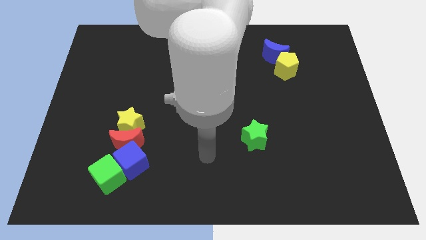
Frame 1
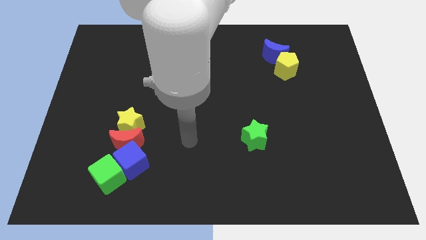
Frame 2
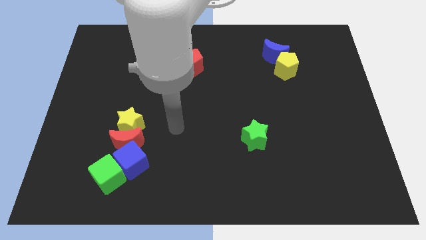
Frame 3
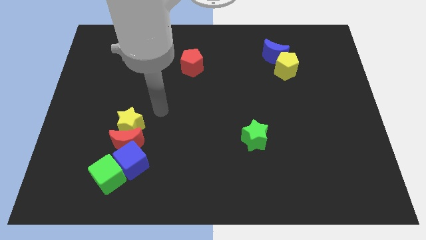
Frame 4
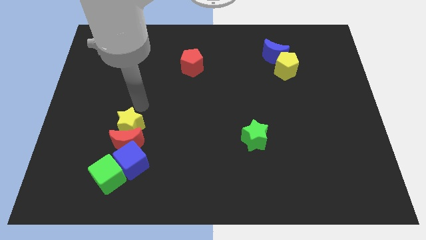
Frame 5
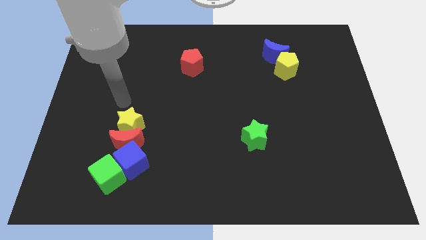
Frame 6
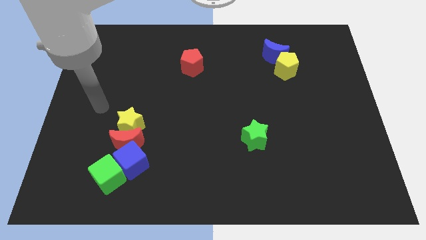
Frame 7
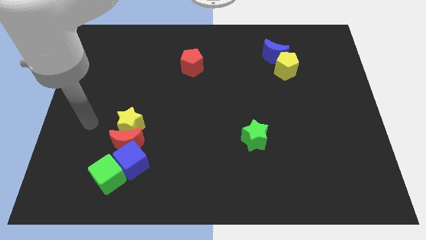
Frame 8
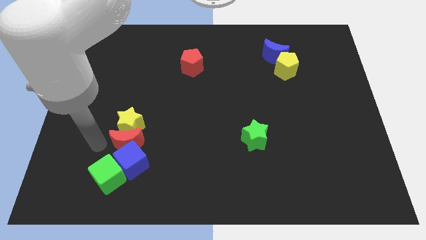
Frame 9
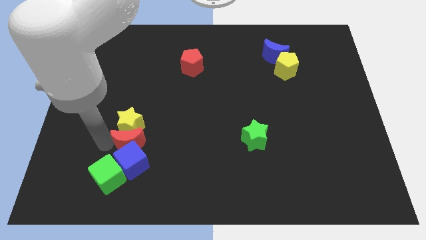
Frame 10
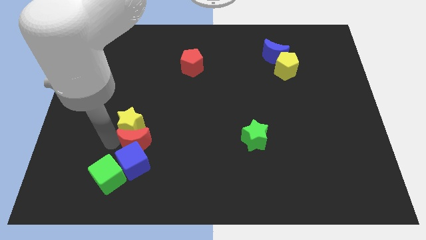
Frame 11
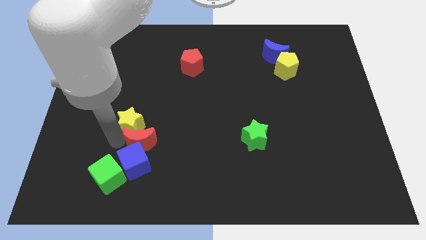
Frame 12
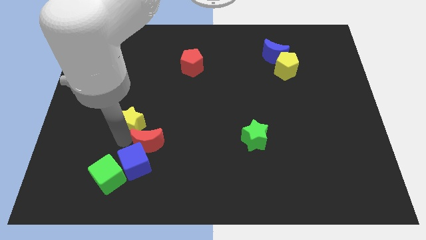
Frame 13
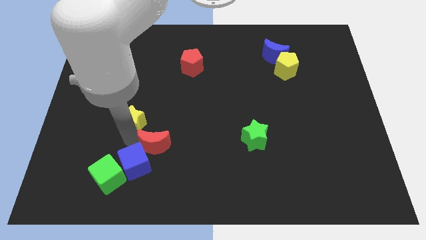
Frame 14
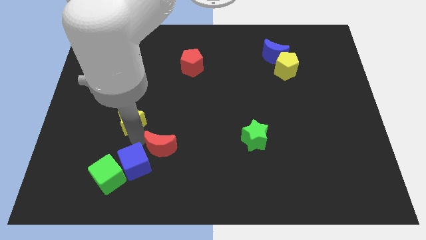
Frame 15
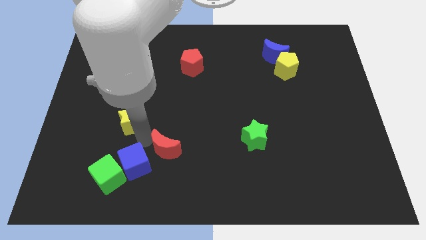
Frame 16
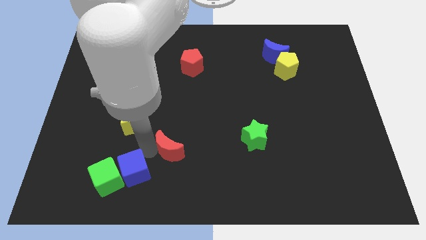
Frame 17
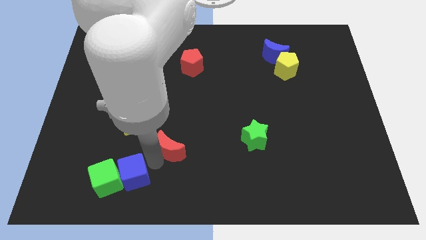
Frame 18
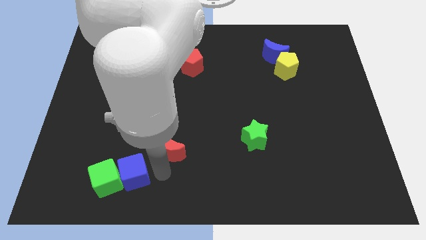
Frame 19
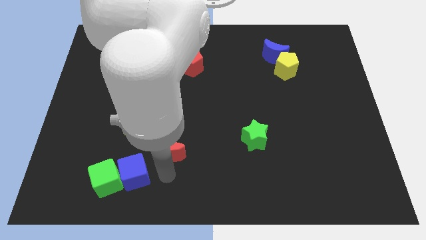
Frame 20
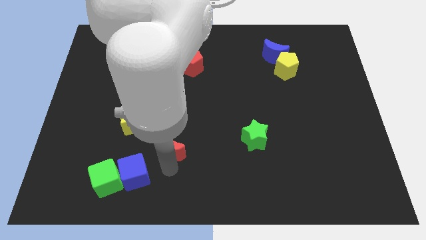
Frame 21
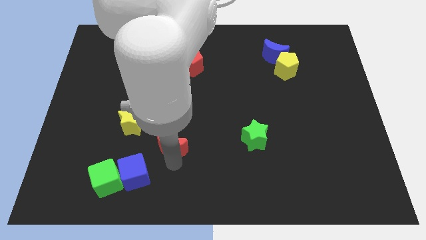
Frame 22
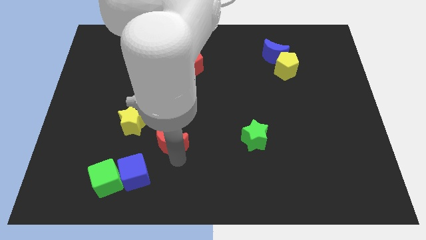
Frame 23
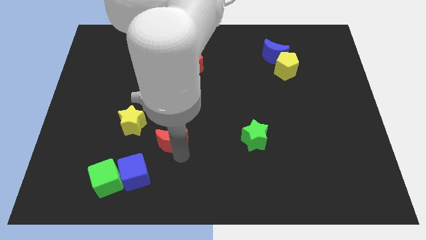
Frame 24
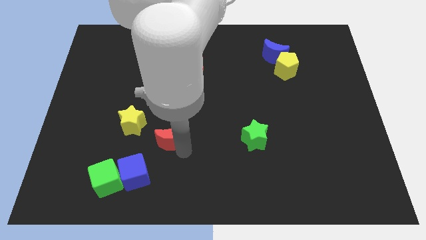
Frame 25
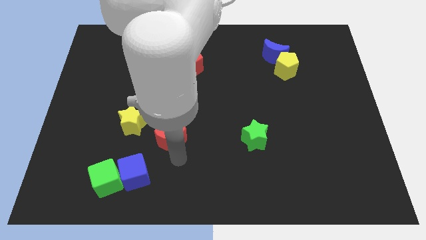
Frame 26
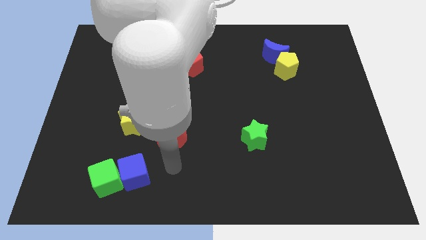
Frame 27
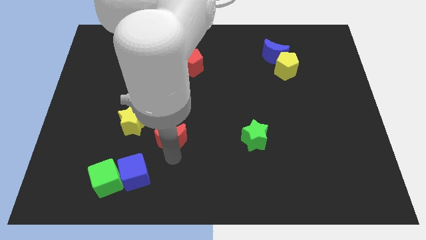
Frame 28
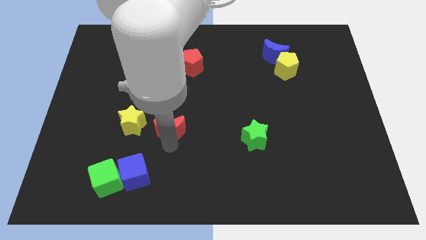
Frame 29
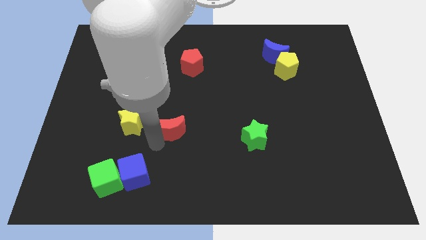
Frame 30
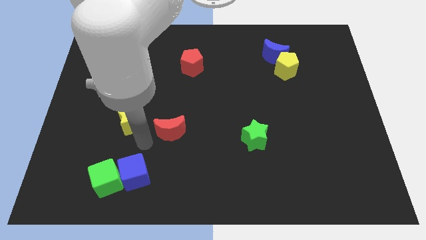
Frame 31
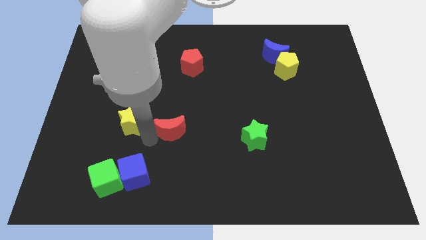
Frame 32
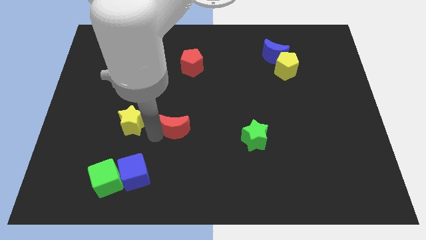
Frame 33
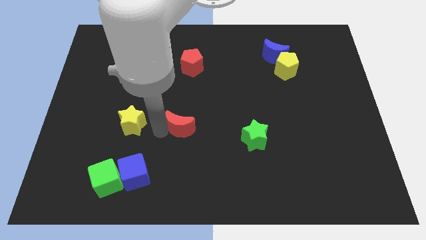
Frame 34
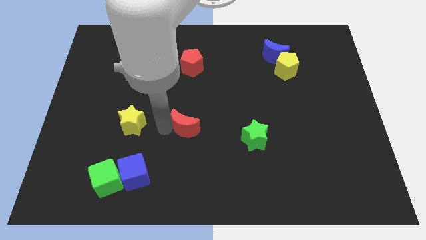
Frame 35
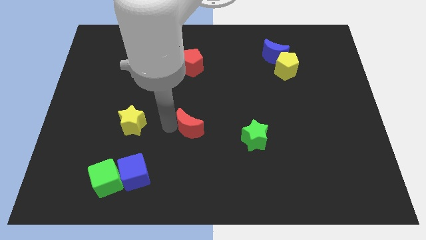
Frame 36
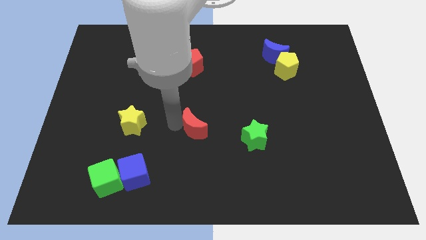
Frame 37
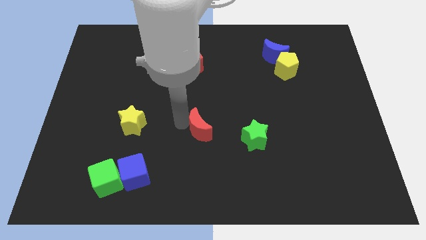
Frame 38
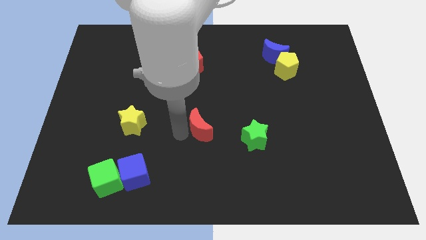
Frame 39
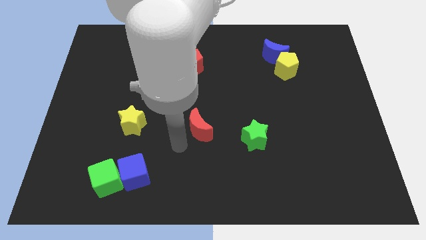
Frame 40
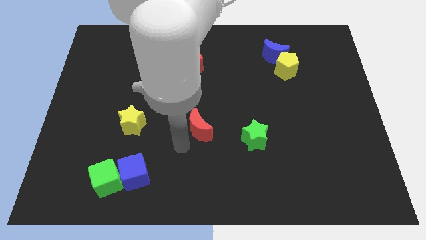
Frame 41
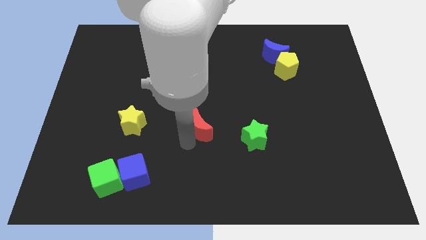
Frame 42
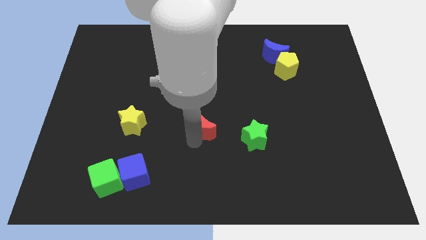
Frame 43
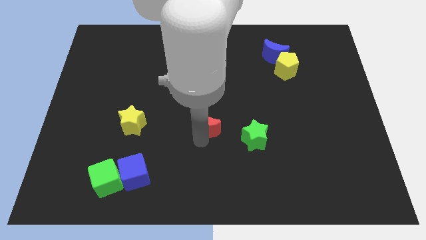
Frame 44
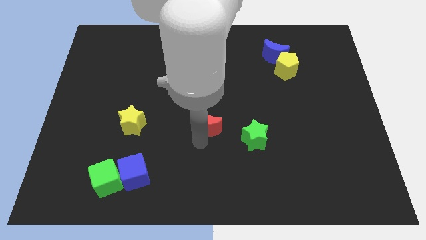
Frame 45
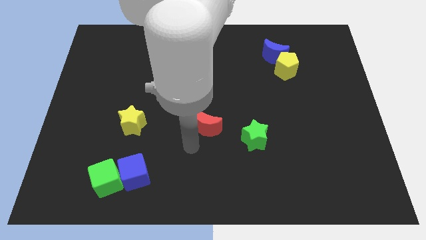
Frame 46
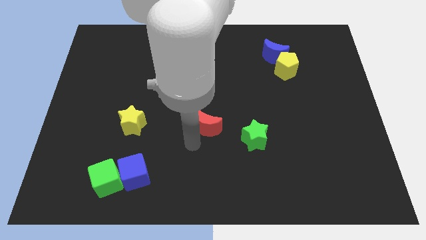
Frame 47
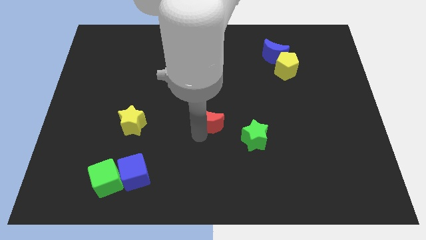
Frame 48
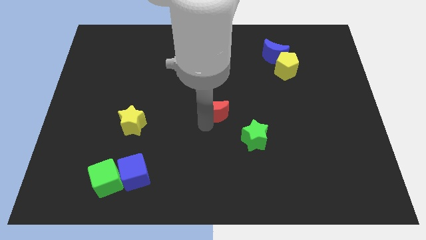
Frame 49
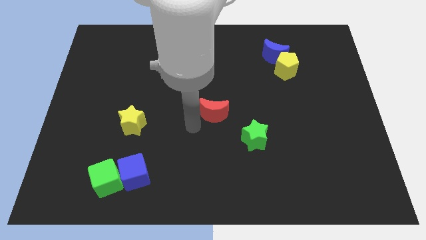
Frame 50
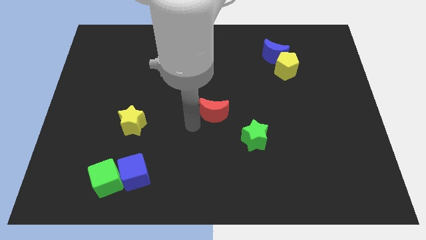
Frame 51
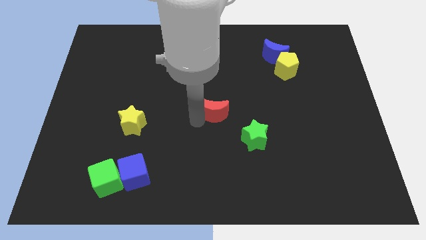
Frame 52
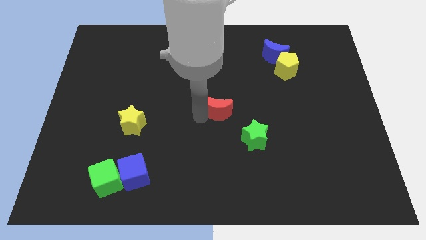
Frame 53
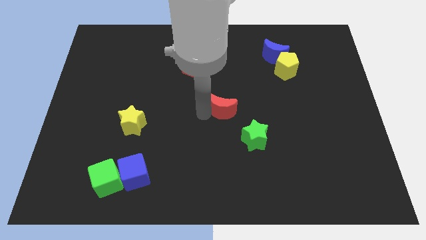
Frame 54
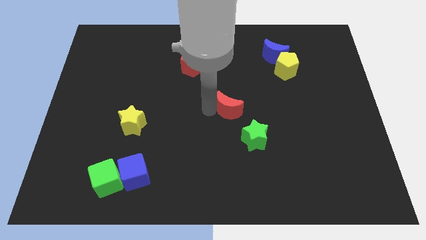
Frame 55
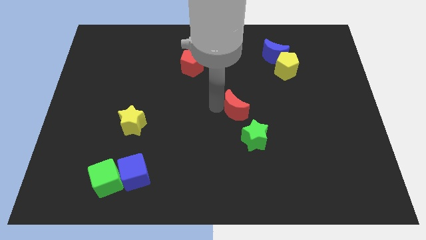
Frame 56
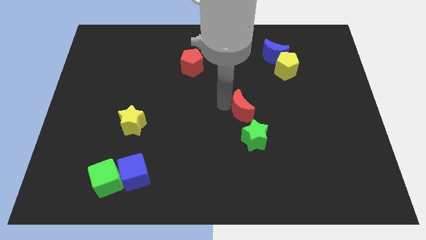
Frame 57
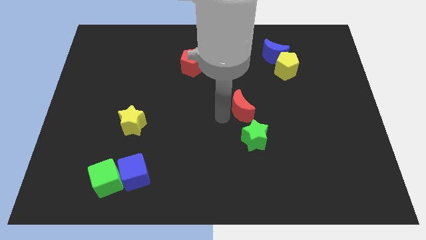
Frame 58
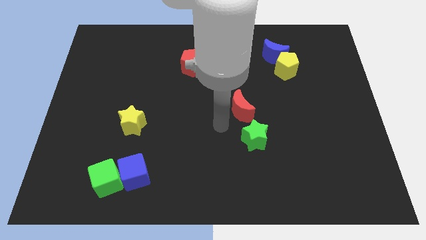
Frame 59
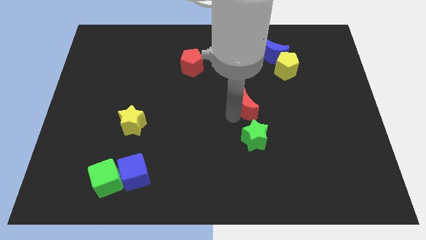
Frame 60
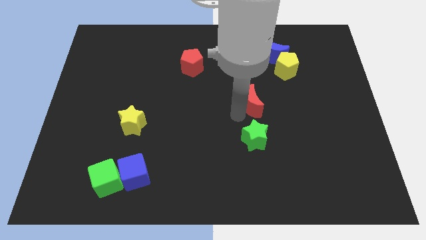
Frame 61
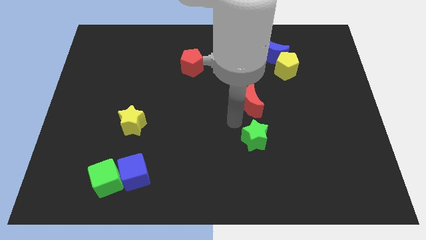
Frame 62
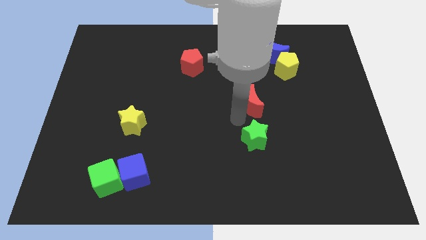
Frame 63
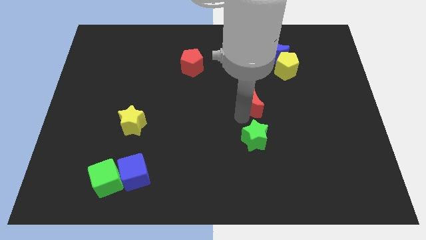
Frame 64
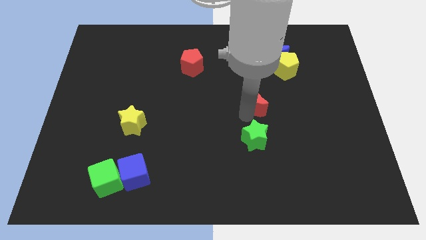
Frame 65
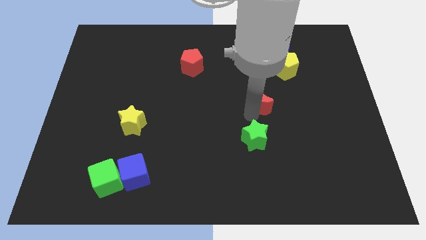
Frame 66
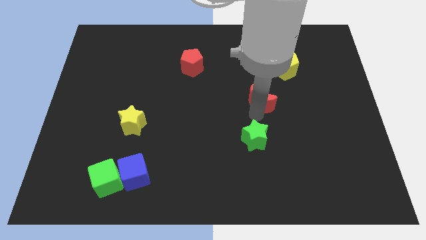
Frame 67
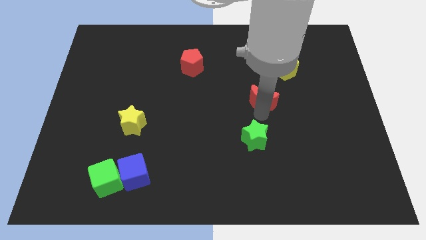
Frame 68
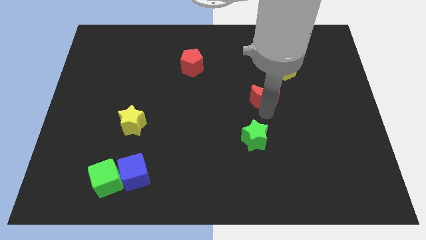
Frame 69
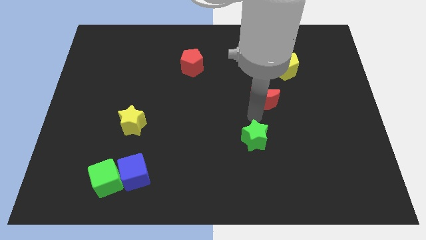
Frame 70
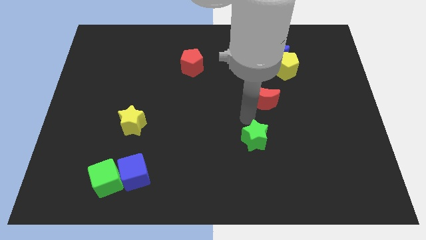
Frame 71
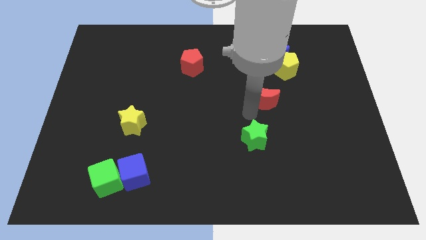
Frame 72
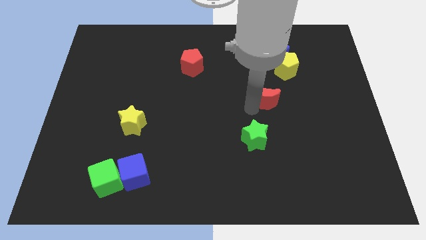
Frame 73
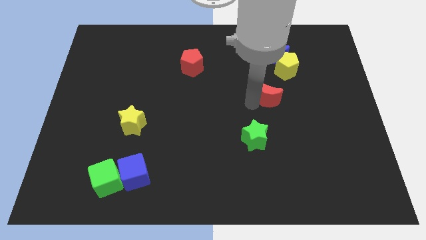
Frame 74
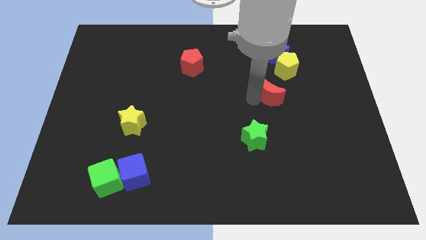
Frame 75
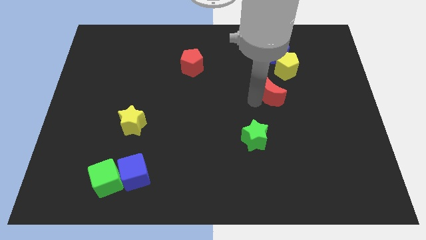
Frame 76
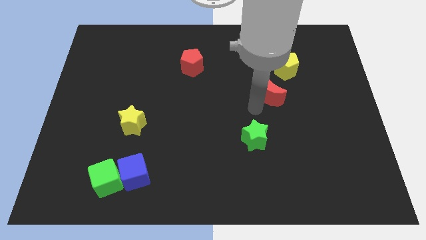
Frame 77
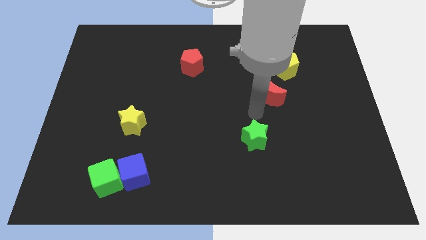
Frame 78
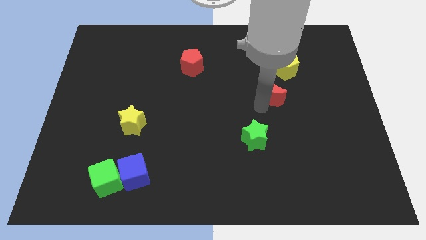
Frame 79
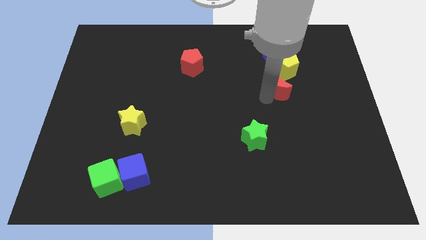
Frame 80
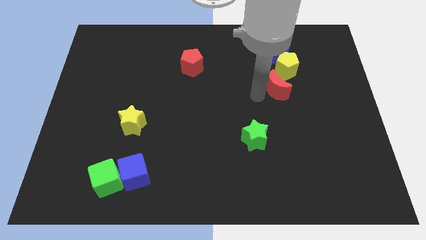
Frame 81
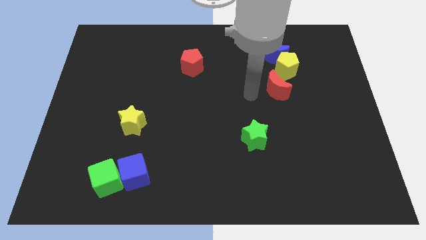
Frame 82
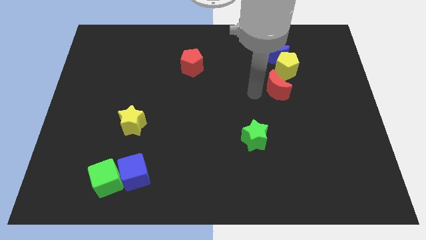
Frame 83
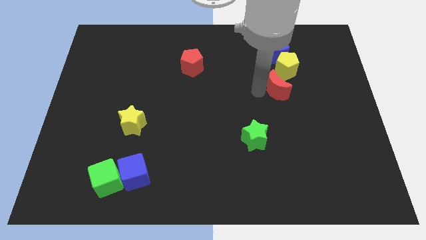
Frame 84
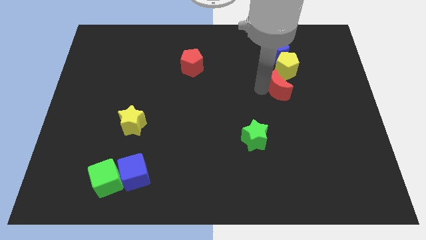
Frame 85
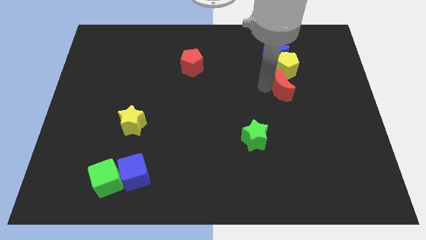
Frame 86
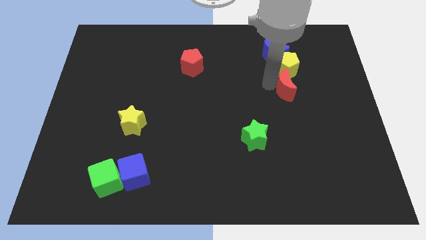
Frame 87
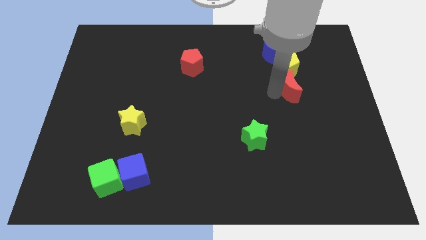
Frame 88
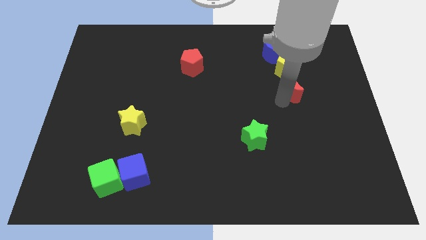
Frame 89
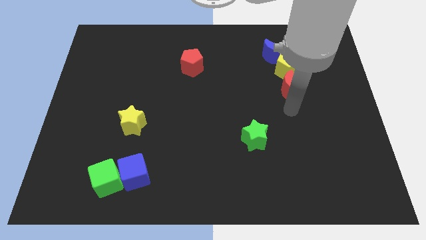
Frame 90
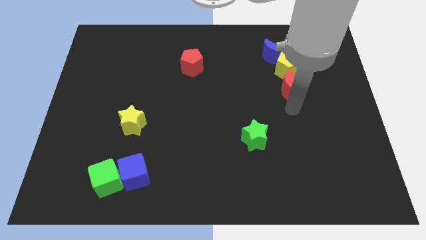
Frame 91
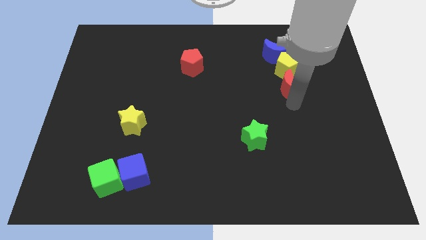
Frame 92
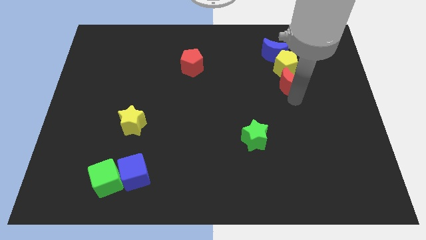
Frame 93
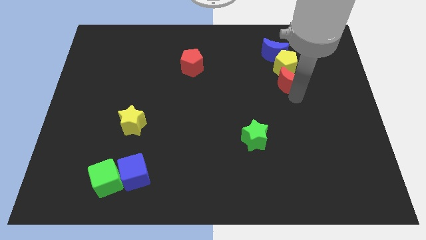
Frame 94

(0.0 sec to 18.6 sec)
slide the red moon close to the yellow pentagon
